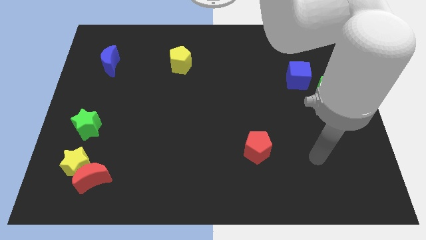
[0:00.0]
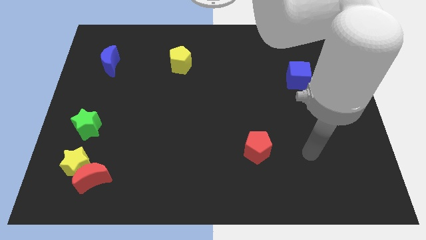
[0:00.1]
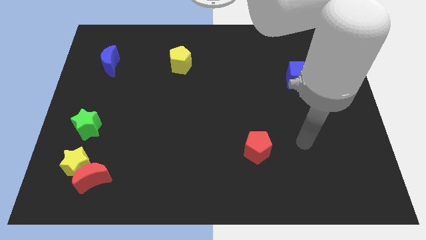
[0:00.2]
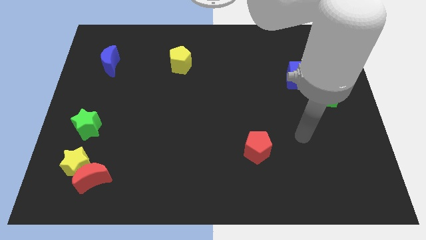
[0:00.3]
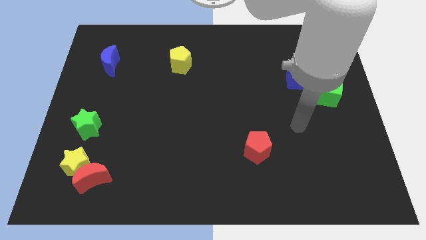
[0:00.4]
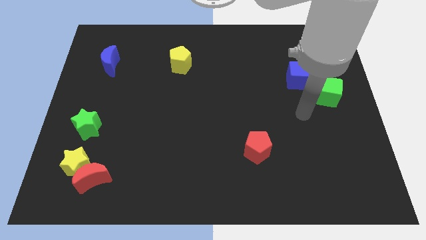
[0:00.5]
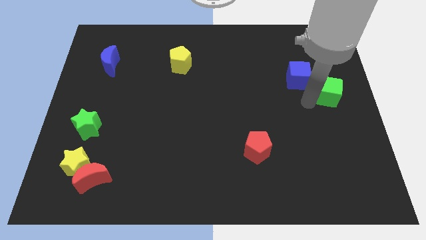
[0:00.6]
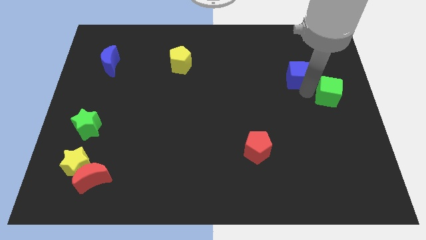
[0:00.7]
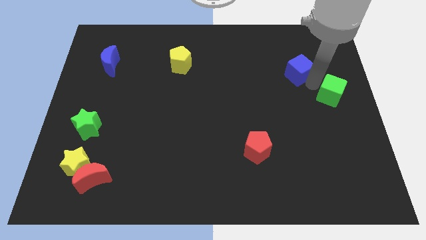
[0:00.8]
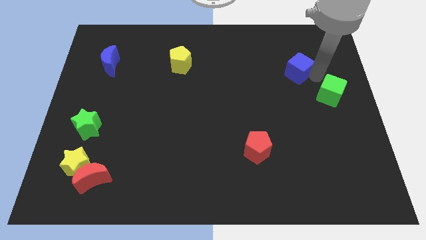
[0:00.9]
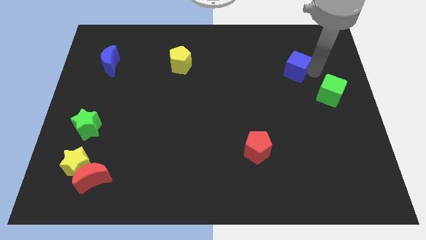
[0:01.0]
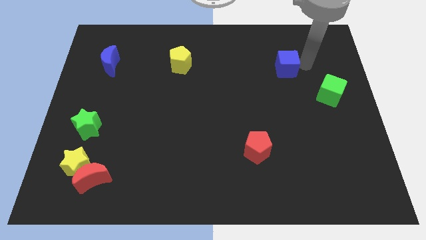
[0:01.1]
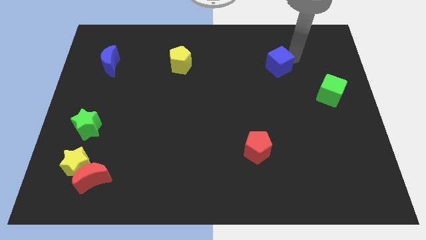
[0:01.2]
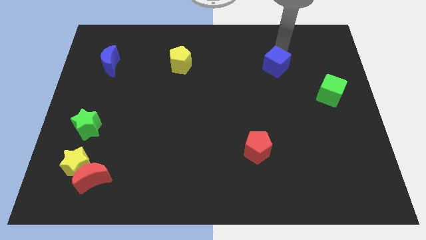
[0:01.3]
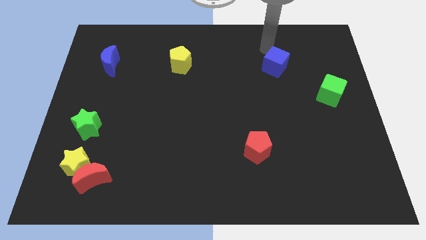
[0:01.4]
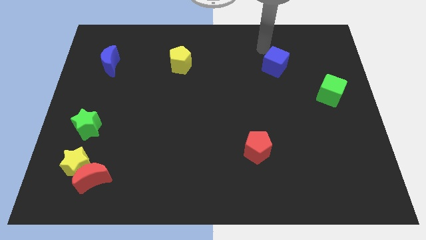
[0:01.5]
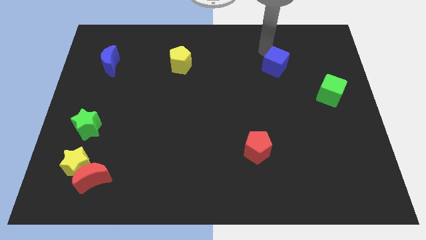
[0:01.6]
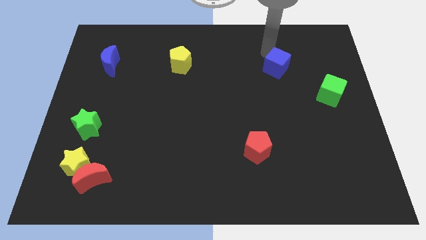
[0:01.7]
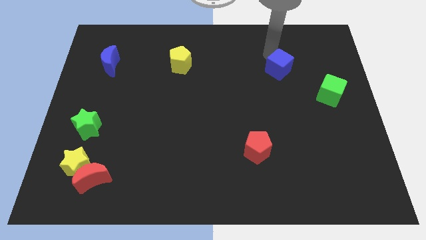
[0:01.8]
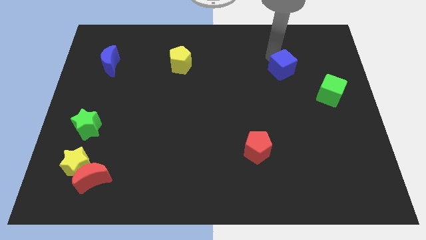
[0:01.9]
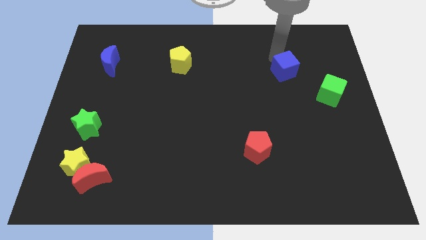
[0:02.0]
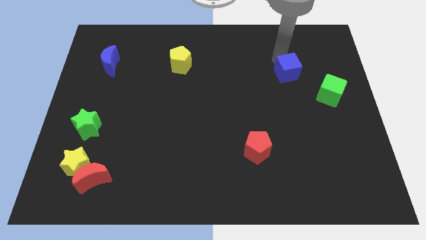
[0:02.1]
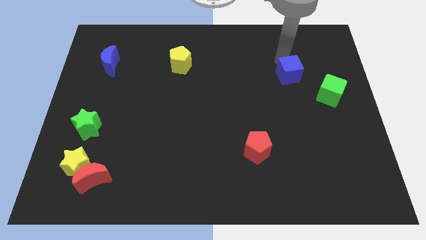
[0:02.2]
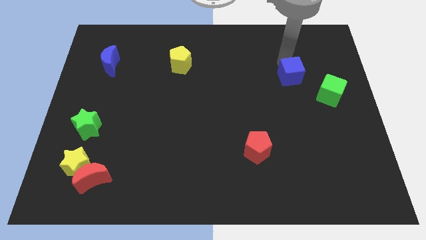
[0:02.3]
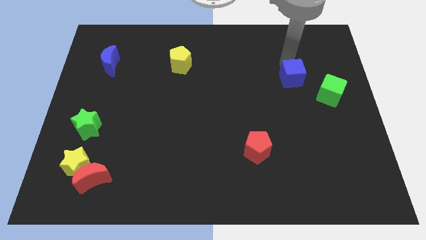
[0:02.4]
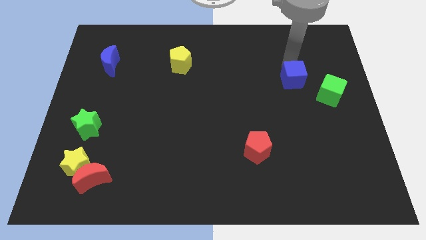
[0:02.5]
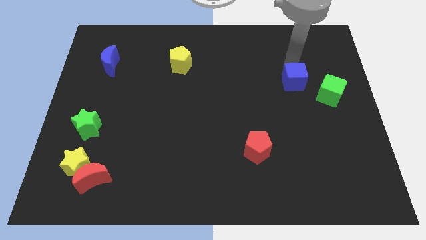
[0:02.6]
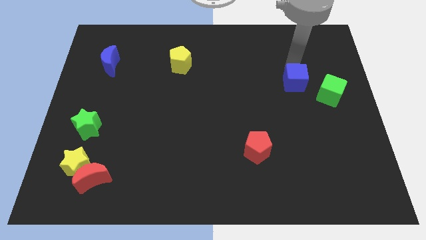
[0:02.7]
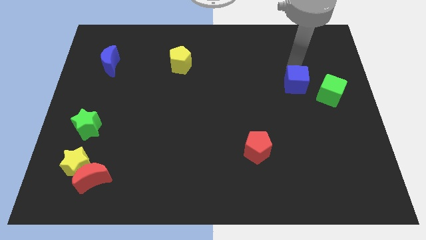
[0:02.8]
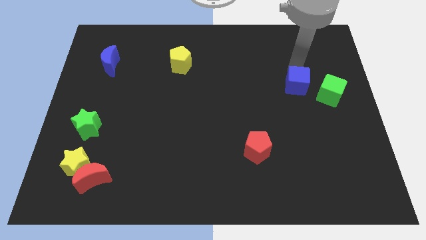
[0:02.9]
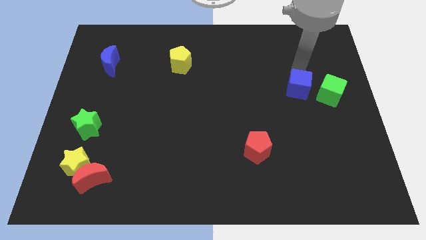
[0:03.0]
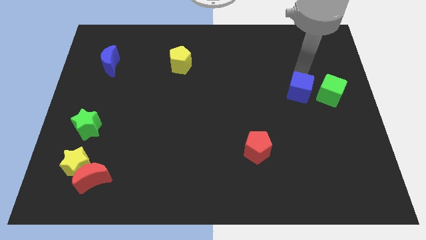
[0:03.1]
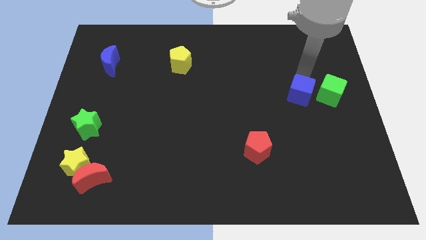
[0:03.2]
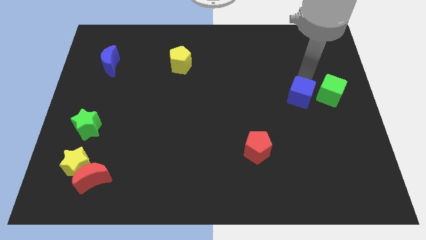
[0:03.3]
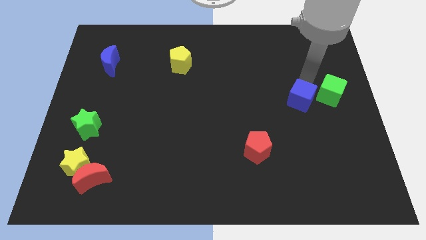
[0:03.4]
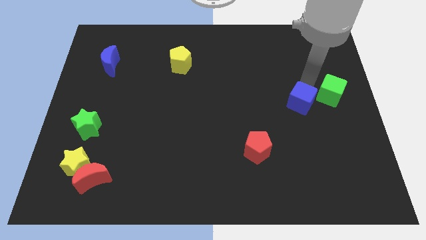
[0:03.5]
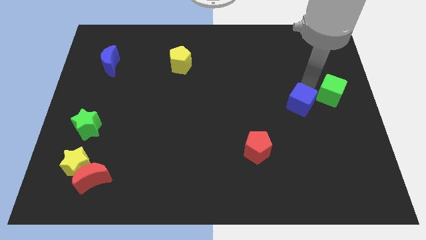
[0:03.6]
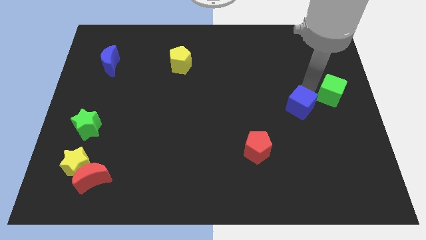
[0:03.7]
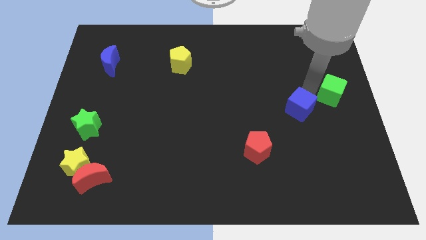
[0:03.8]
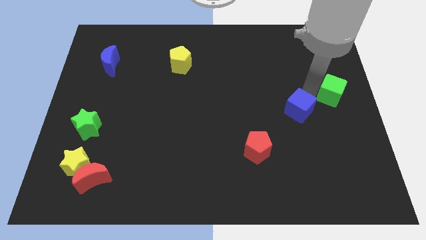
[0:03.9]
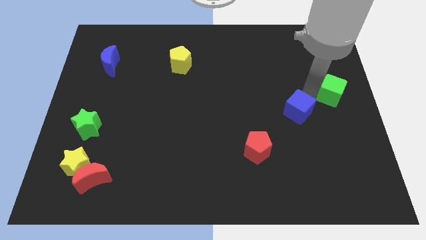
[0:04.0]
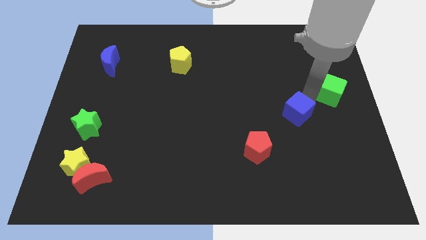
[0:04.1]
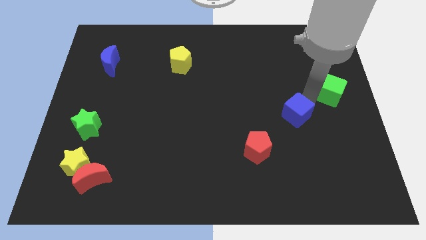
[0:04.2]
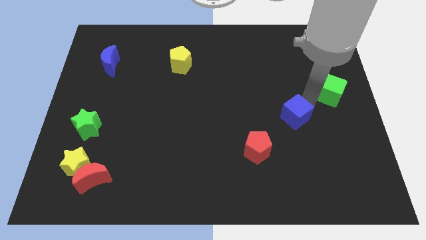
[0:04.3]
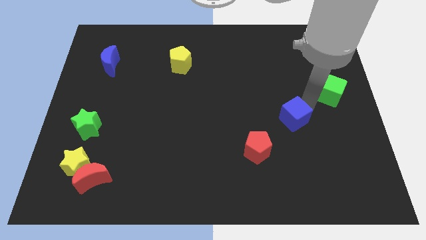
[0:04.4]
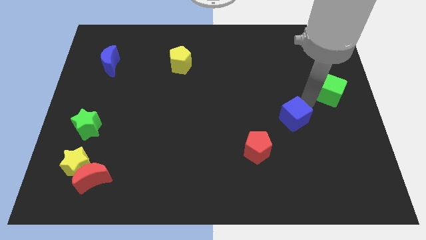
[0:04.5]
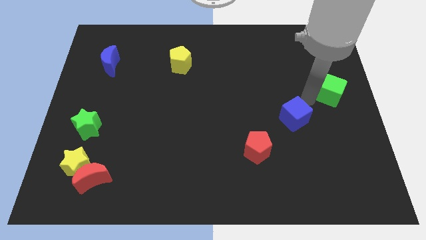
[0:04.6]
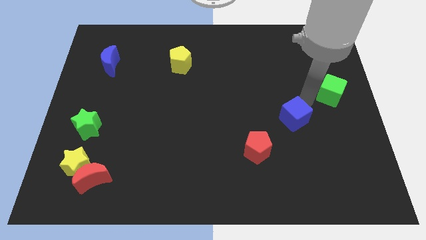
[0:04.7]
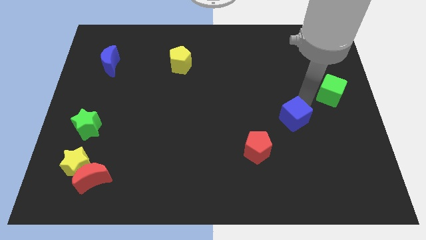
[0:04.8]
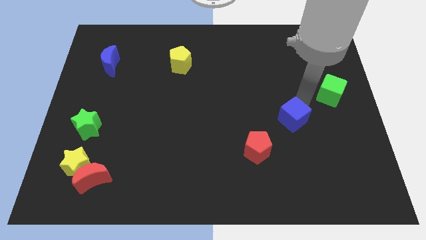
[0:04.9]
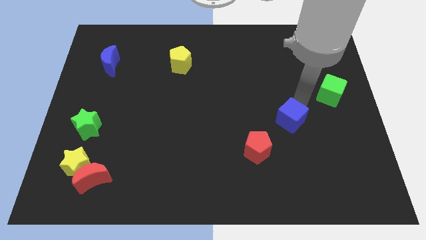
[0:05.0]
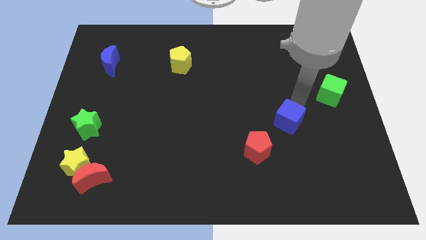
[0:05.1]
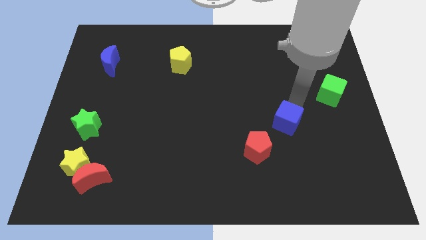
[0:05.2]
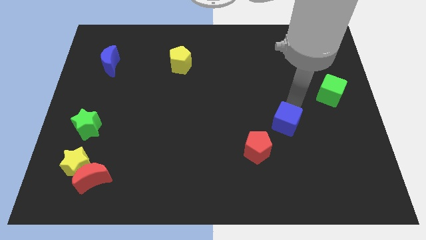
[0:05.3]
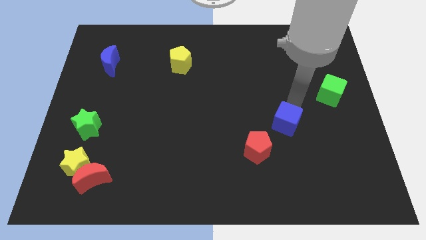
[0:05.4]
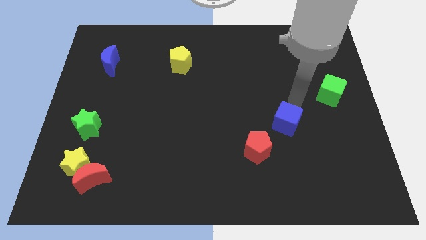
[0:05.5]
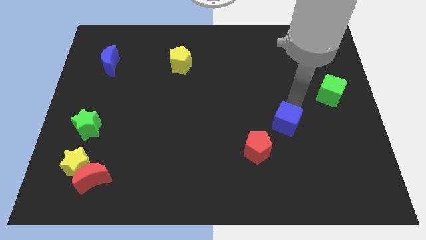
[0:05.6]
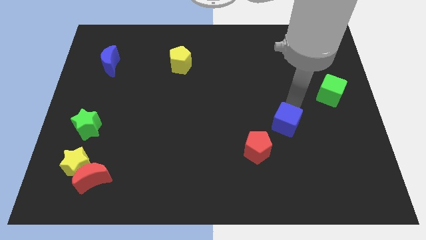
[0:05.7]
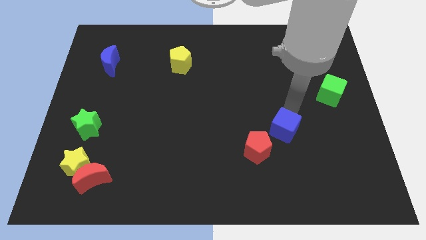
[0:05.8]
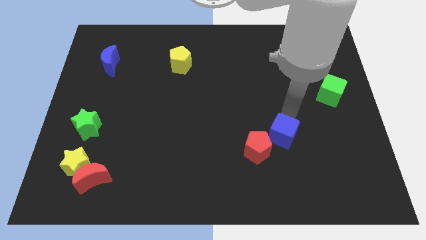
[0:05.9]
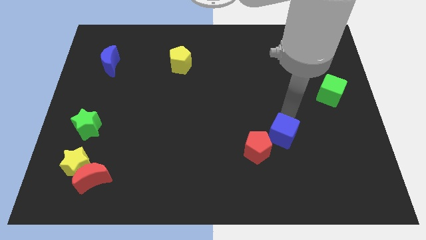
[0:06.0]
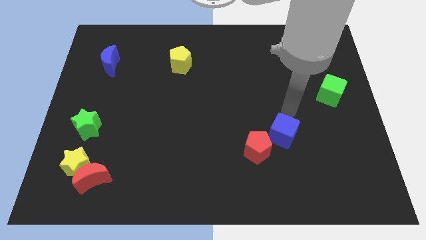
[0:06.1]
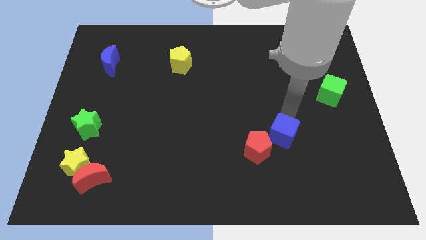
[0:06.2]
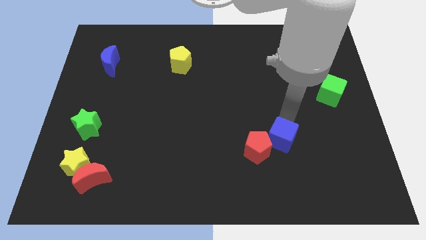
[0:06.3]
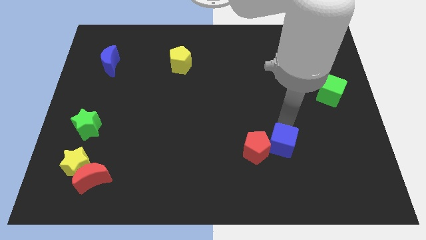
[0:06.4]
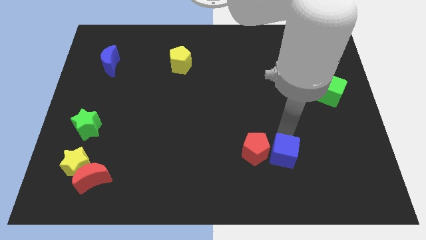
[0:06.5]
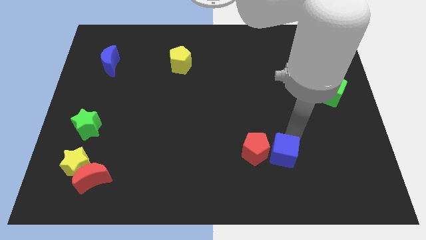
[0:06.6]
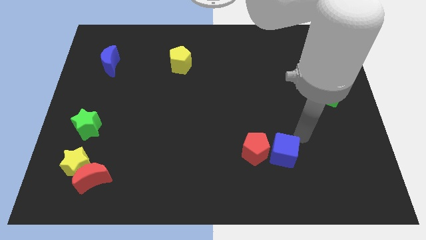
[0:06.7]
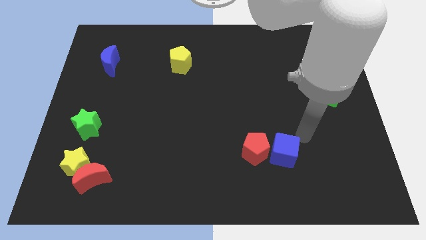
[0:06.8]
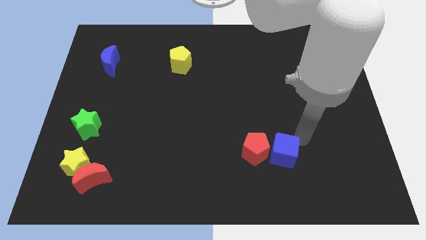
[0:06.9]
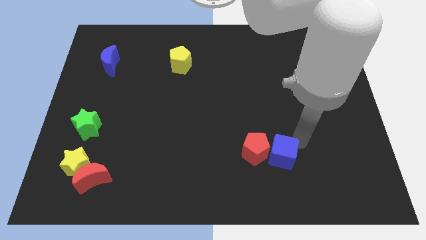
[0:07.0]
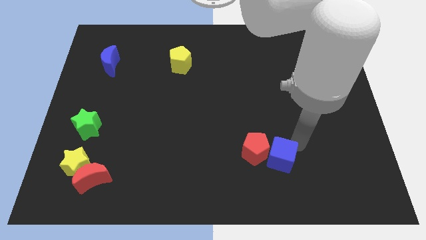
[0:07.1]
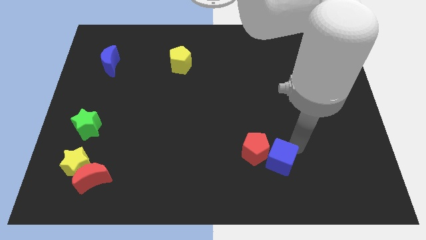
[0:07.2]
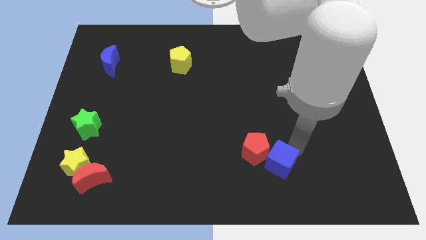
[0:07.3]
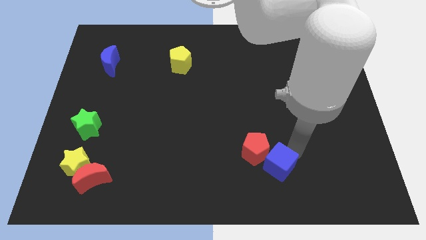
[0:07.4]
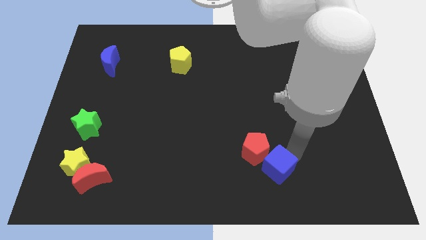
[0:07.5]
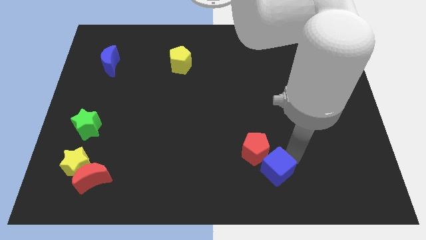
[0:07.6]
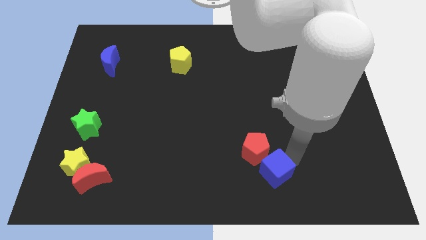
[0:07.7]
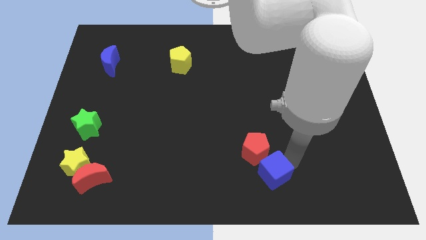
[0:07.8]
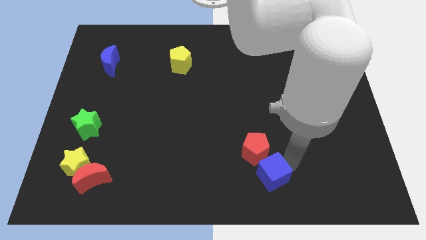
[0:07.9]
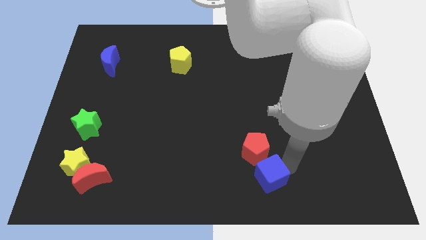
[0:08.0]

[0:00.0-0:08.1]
push the blue cube to the bottom
